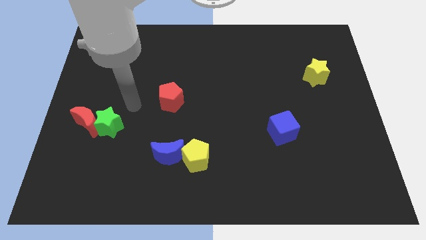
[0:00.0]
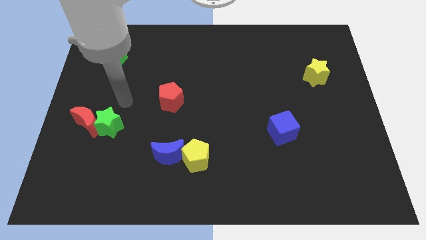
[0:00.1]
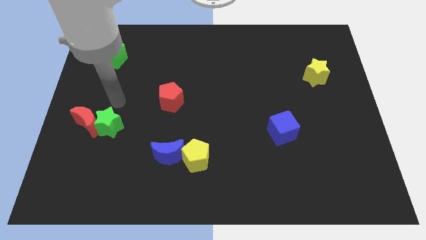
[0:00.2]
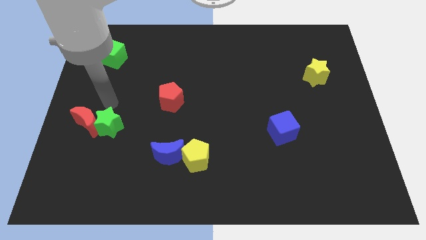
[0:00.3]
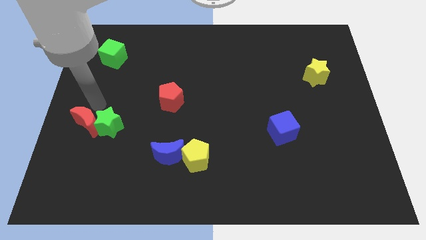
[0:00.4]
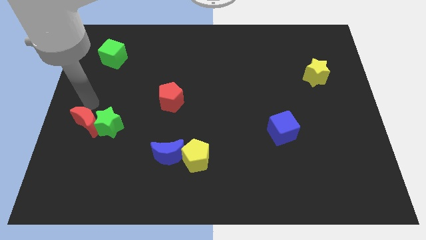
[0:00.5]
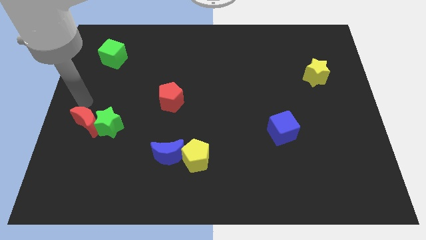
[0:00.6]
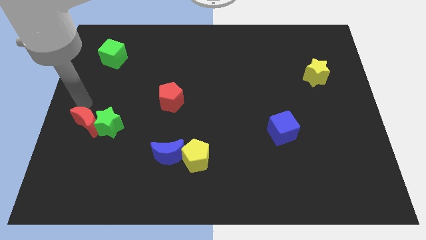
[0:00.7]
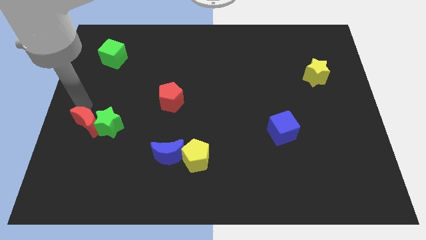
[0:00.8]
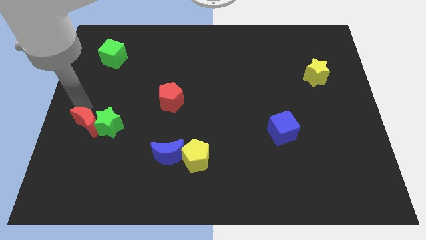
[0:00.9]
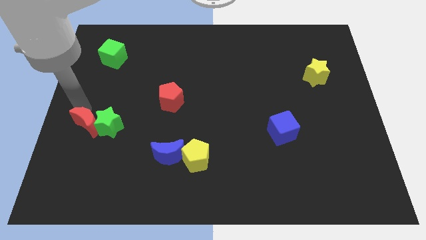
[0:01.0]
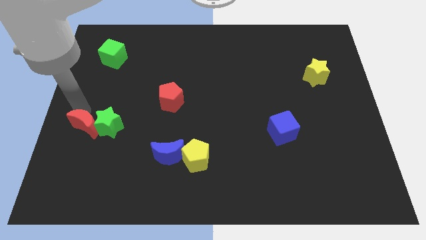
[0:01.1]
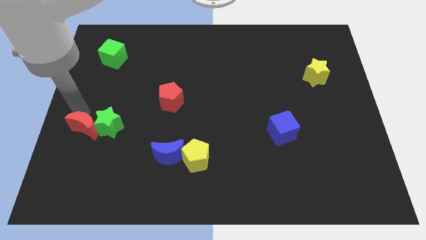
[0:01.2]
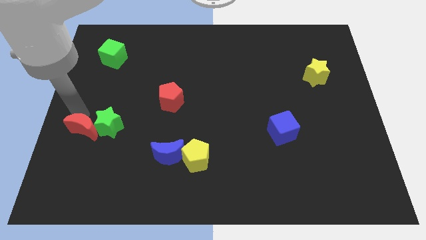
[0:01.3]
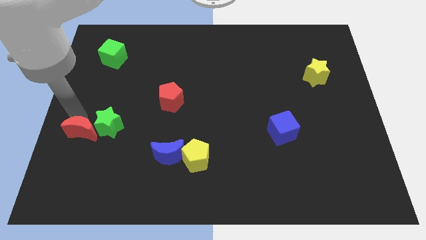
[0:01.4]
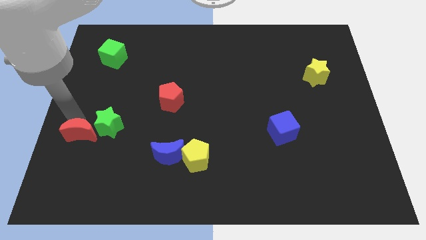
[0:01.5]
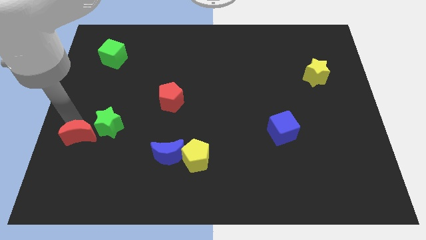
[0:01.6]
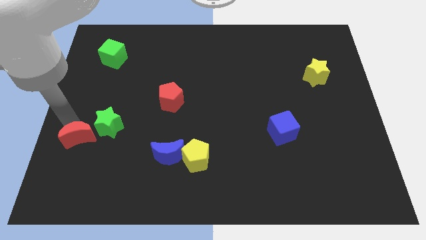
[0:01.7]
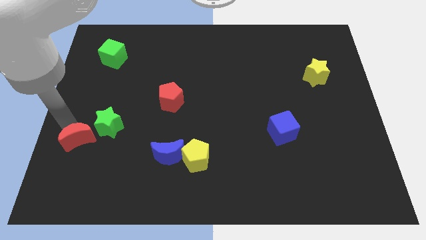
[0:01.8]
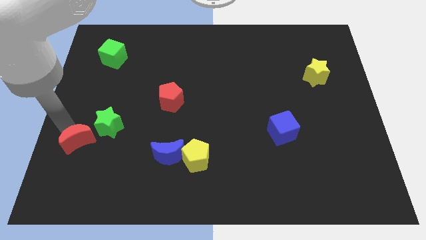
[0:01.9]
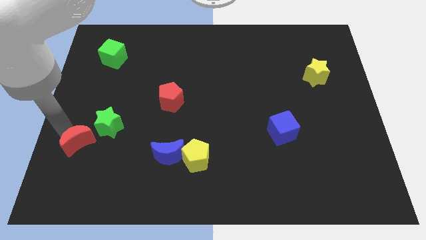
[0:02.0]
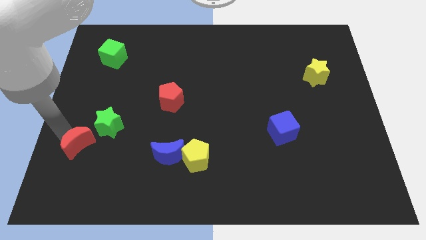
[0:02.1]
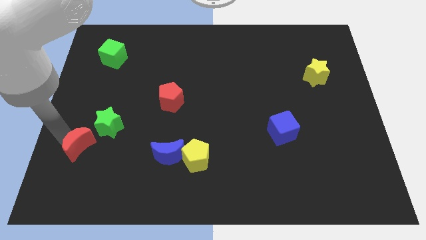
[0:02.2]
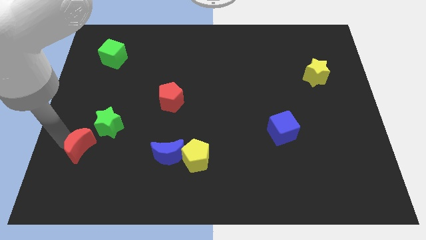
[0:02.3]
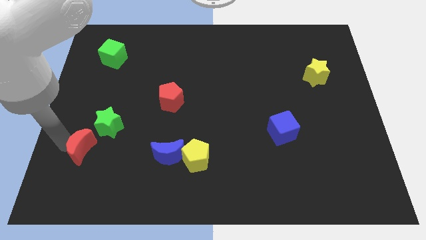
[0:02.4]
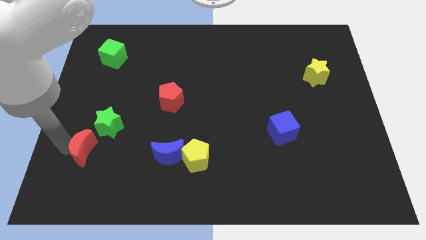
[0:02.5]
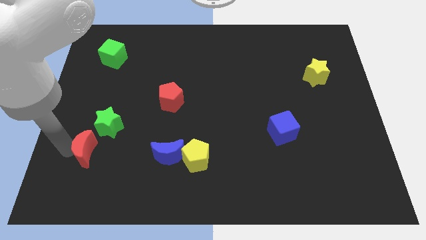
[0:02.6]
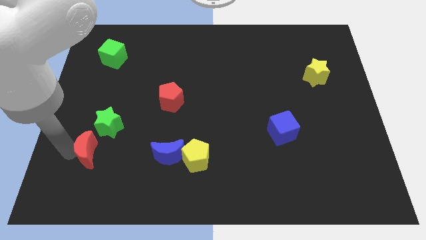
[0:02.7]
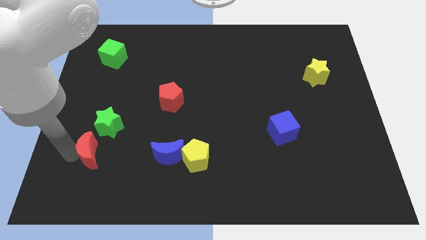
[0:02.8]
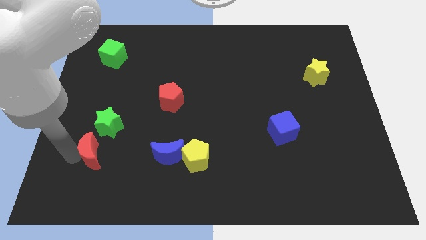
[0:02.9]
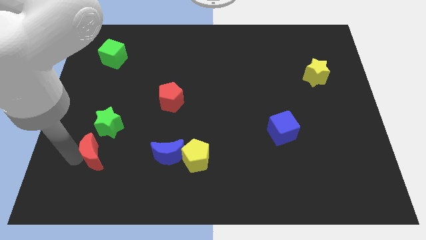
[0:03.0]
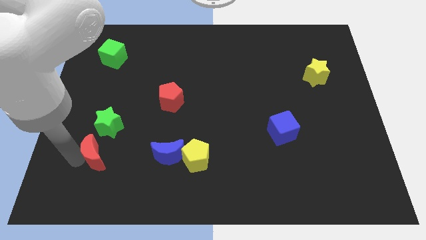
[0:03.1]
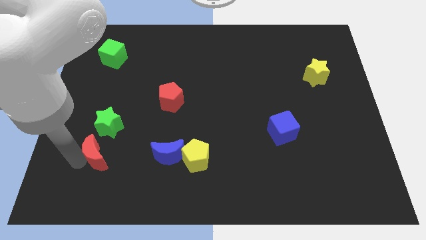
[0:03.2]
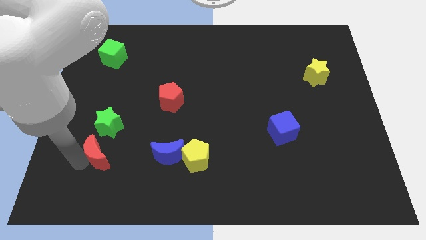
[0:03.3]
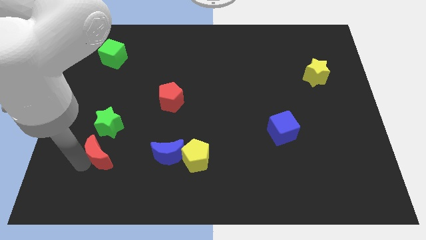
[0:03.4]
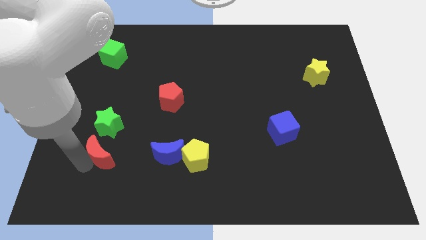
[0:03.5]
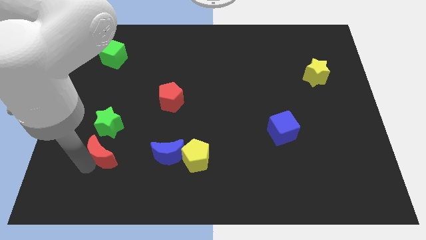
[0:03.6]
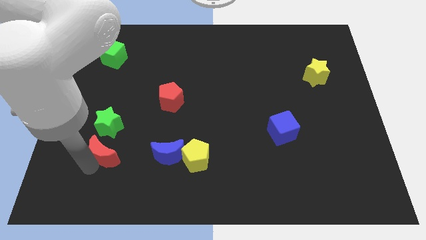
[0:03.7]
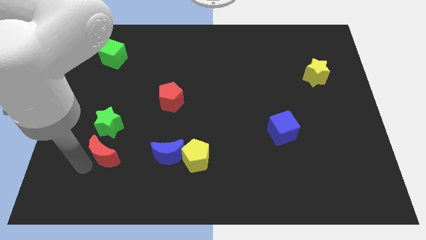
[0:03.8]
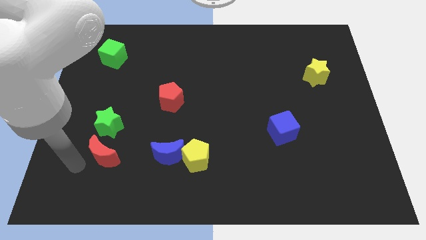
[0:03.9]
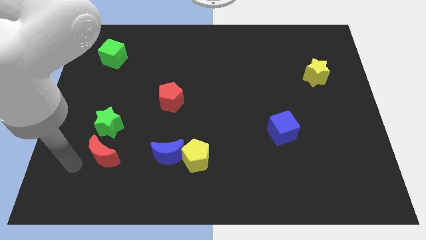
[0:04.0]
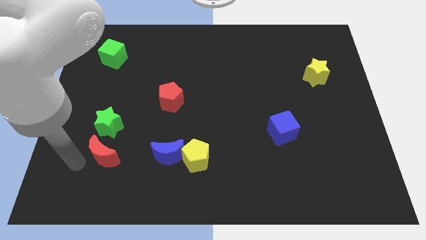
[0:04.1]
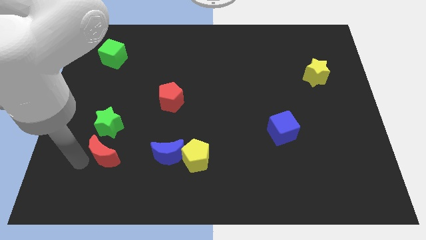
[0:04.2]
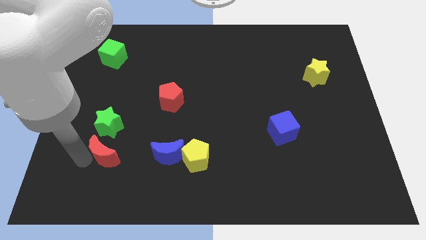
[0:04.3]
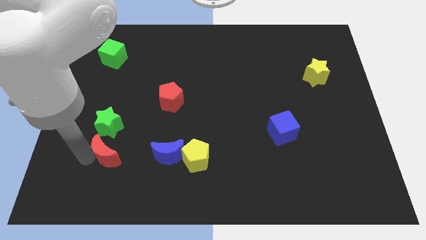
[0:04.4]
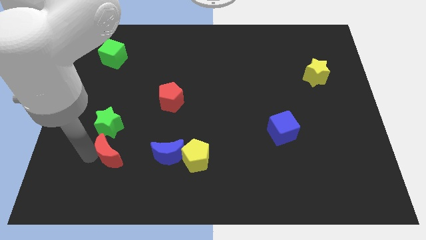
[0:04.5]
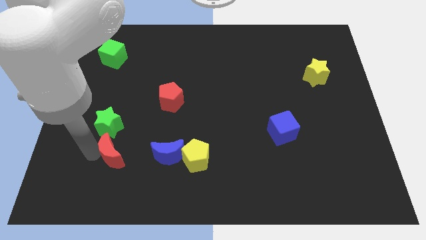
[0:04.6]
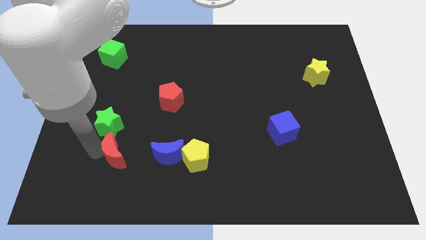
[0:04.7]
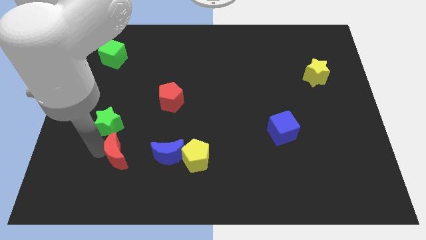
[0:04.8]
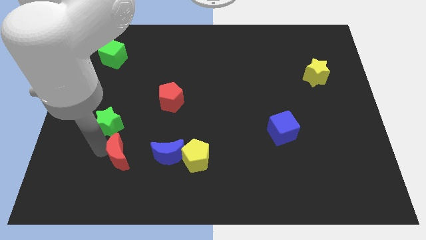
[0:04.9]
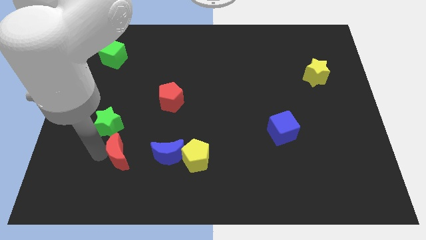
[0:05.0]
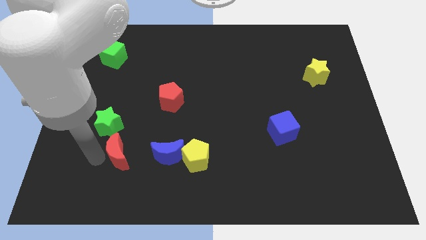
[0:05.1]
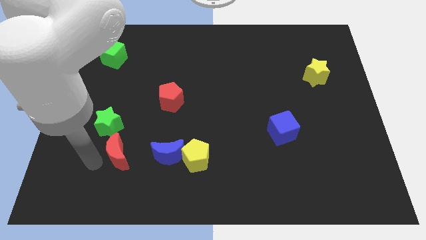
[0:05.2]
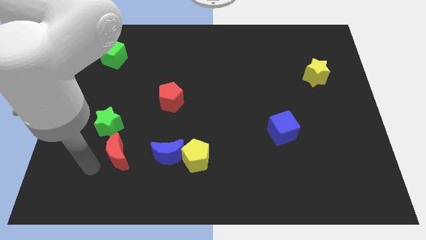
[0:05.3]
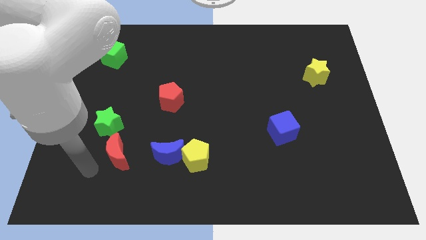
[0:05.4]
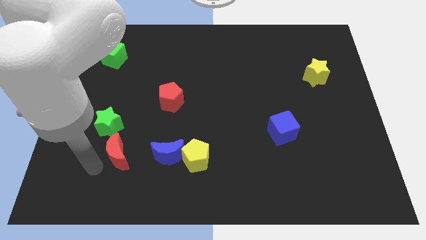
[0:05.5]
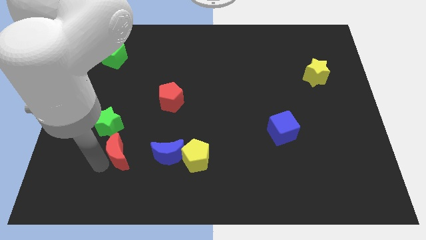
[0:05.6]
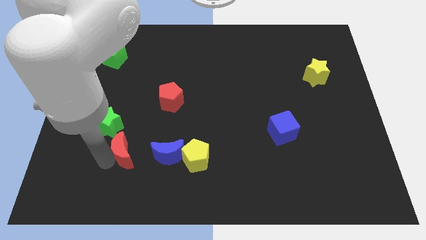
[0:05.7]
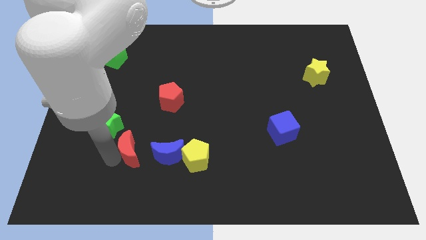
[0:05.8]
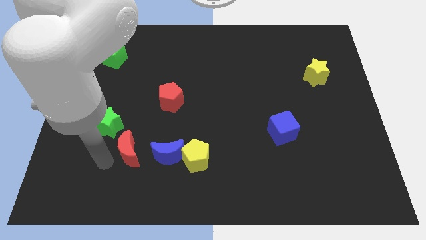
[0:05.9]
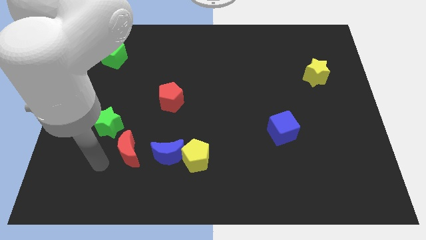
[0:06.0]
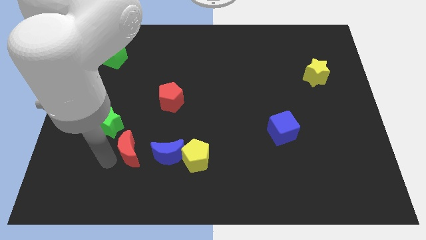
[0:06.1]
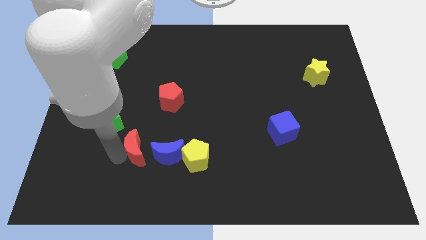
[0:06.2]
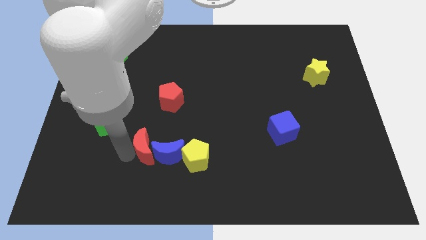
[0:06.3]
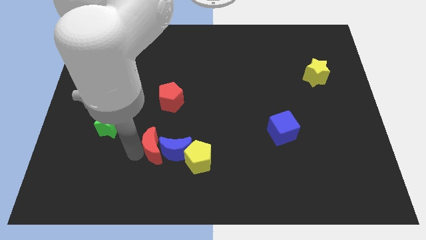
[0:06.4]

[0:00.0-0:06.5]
slide the red moon to the bottom of the red pentagon

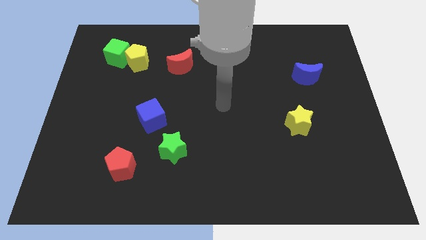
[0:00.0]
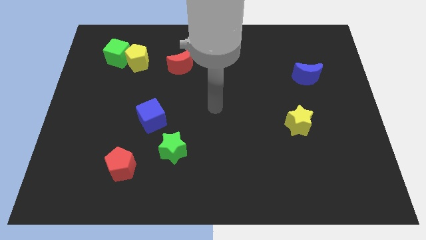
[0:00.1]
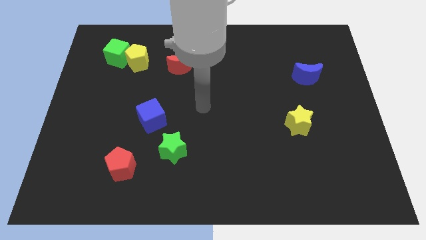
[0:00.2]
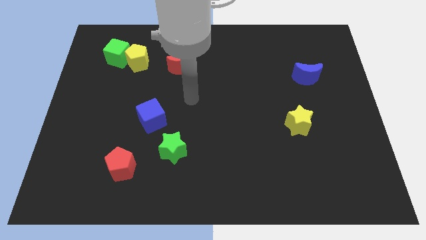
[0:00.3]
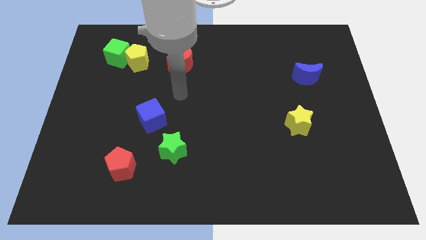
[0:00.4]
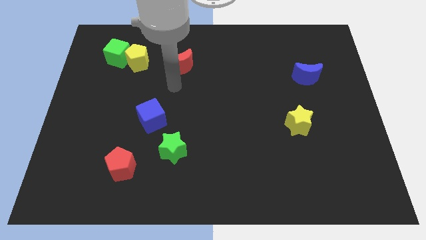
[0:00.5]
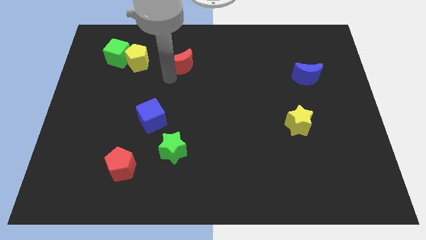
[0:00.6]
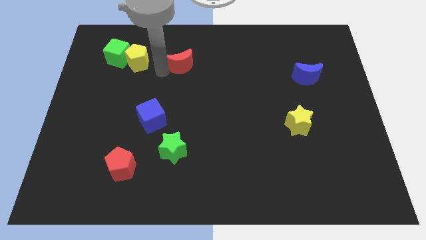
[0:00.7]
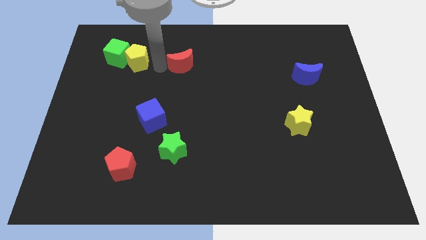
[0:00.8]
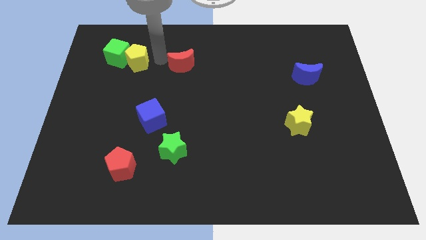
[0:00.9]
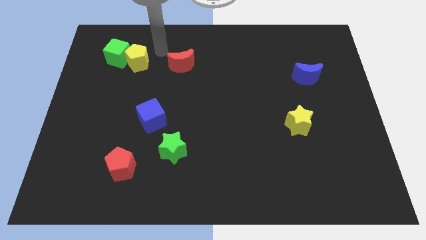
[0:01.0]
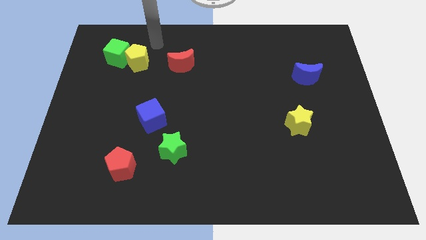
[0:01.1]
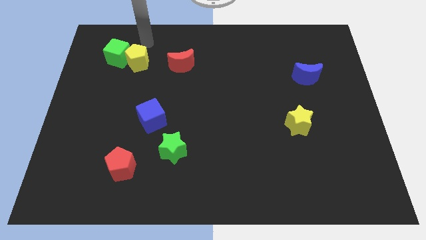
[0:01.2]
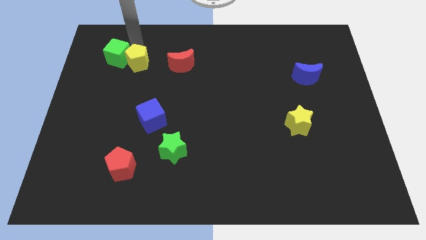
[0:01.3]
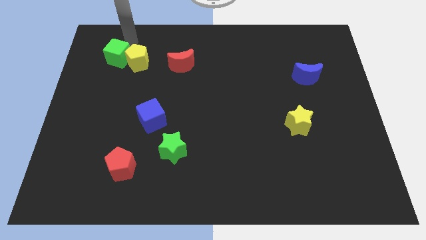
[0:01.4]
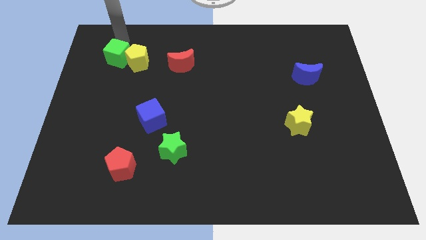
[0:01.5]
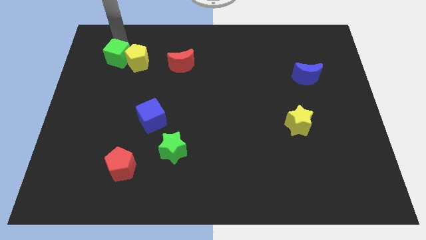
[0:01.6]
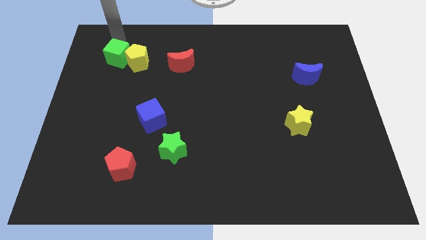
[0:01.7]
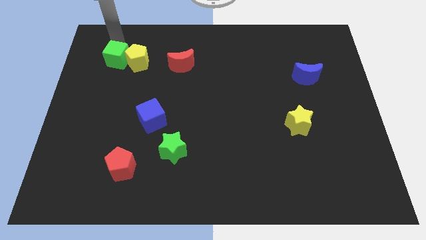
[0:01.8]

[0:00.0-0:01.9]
push the green cube to the bottom left side of the yellow pentagon
